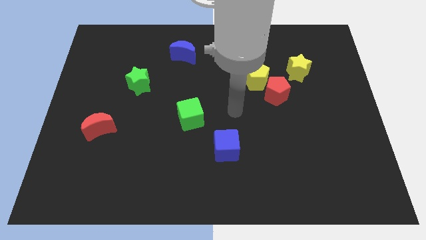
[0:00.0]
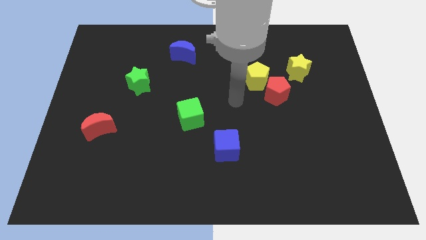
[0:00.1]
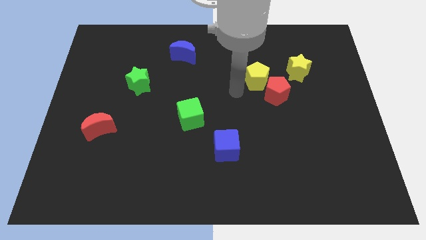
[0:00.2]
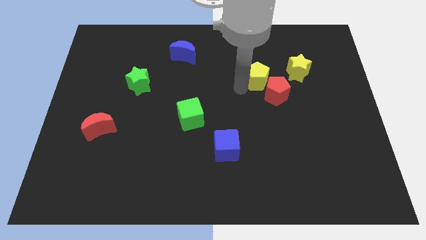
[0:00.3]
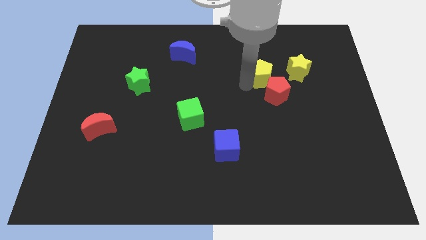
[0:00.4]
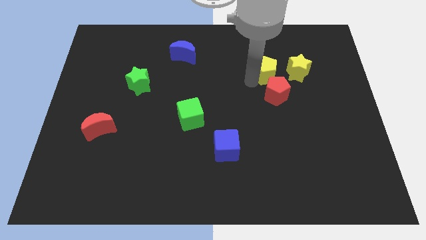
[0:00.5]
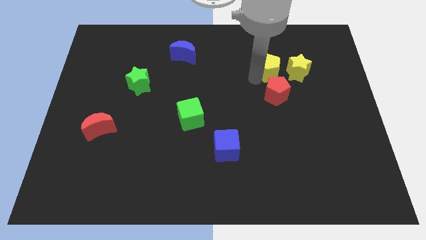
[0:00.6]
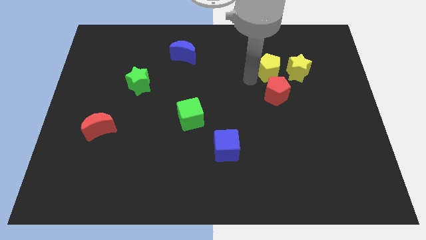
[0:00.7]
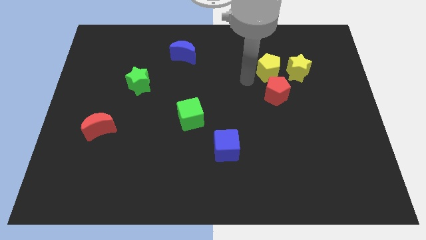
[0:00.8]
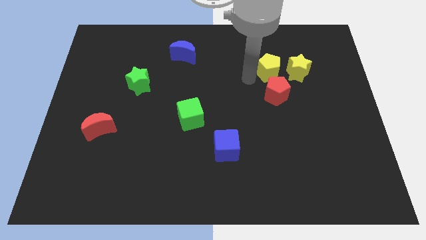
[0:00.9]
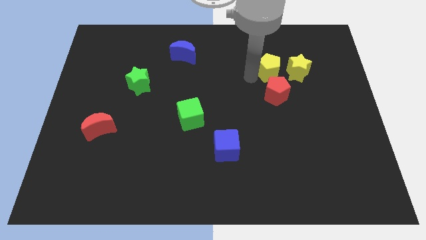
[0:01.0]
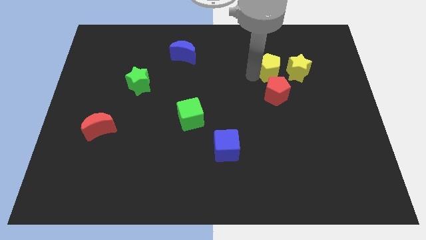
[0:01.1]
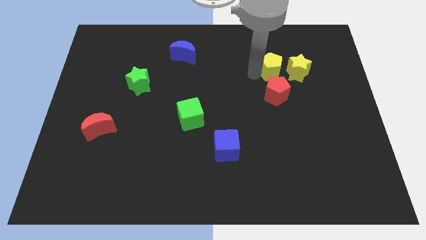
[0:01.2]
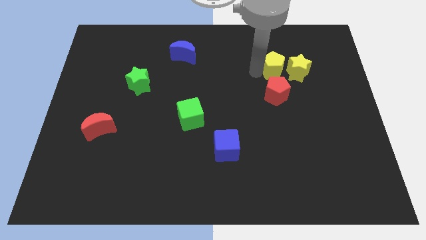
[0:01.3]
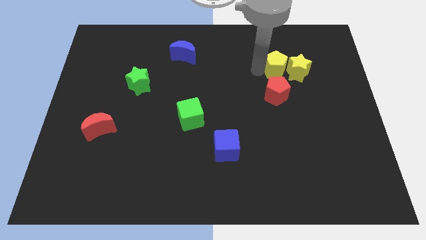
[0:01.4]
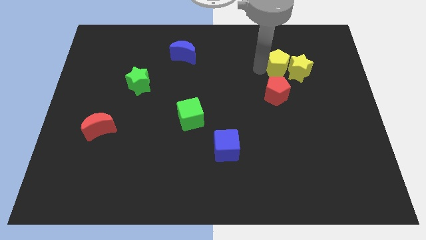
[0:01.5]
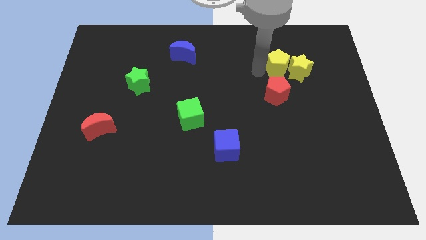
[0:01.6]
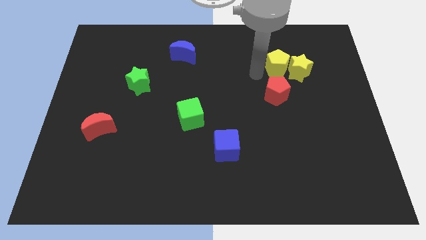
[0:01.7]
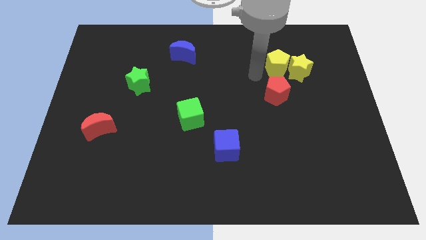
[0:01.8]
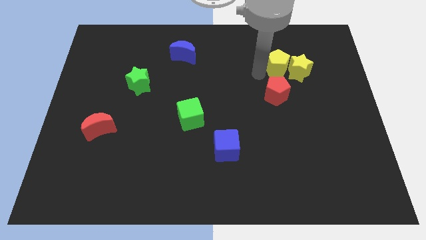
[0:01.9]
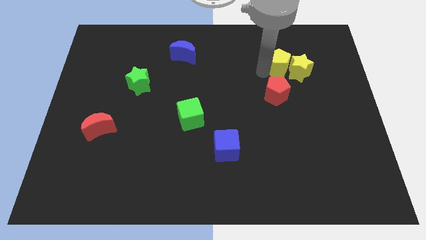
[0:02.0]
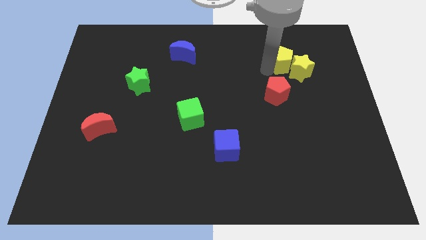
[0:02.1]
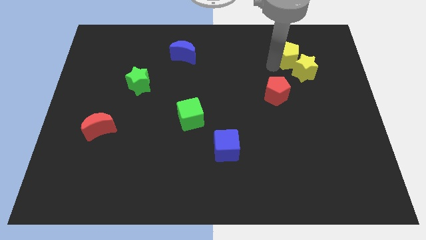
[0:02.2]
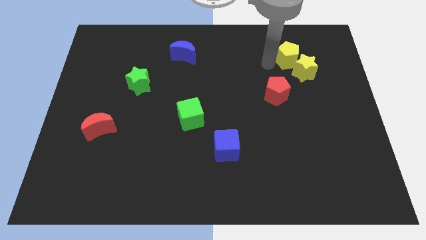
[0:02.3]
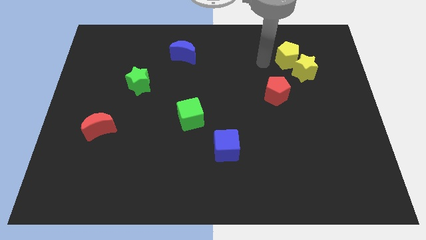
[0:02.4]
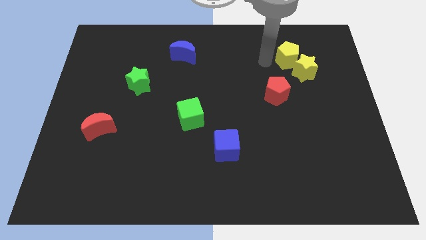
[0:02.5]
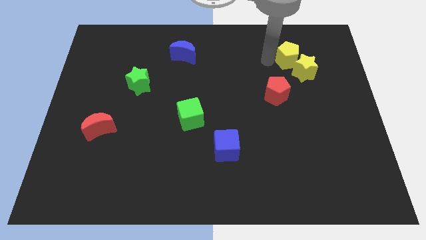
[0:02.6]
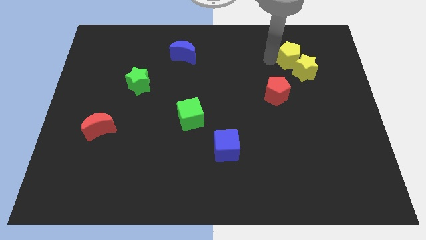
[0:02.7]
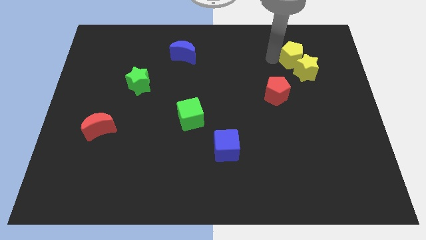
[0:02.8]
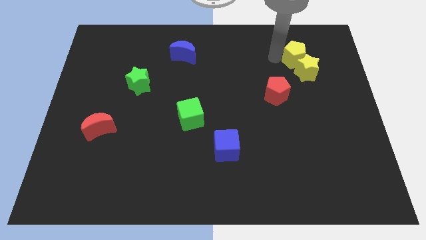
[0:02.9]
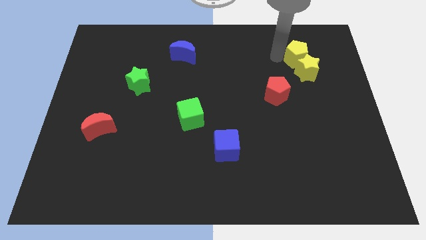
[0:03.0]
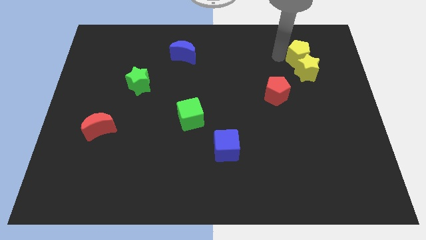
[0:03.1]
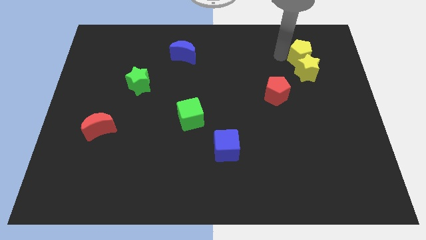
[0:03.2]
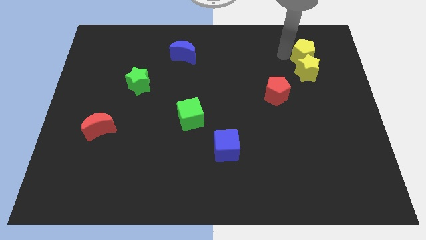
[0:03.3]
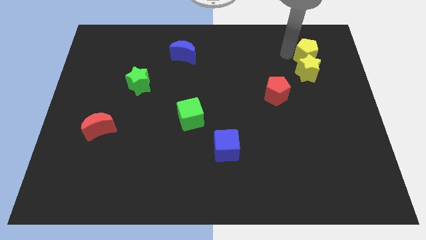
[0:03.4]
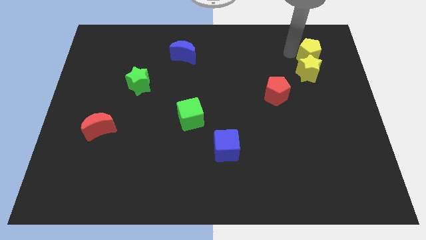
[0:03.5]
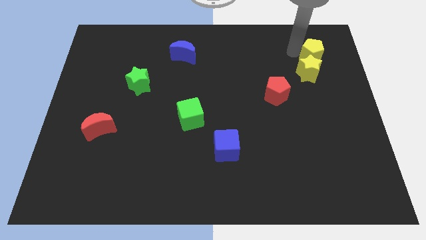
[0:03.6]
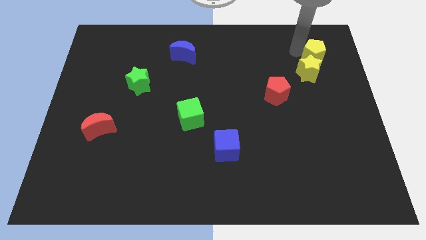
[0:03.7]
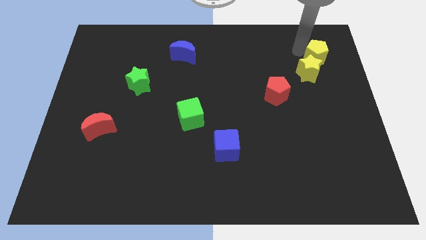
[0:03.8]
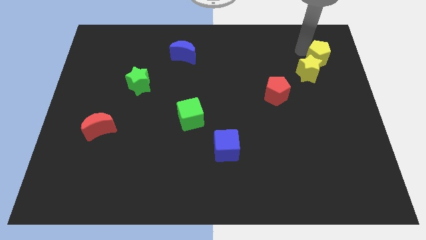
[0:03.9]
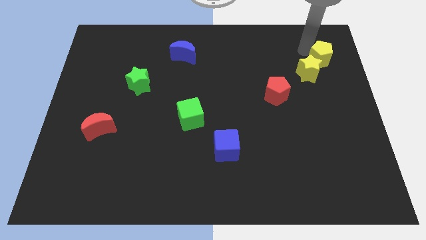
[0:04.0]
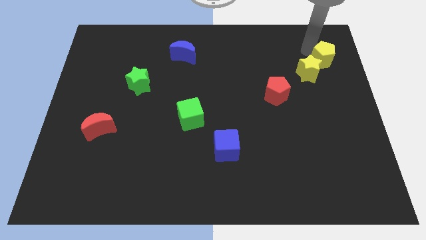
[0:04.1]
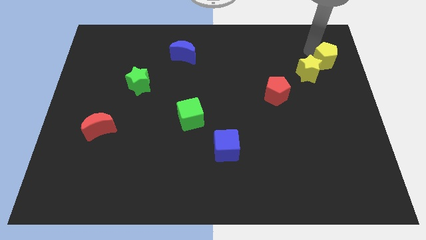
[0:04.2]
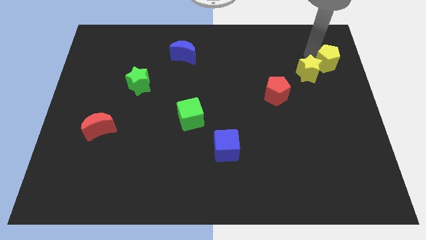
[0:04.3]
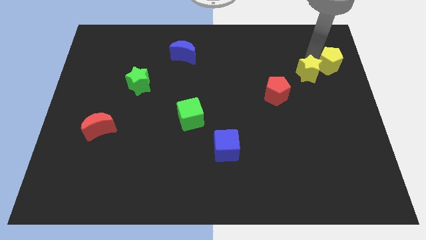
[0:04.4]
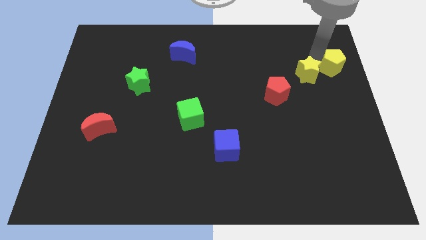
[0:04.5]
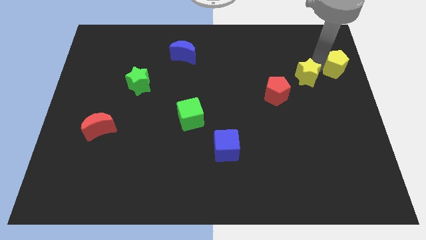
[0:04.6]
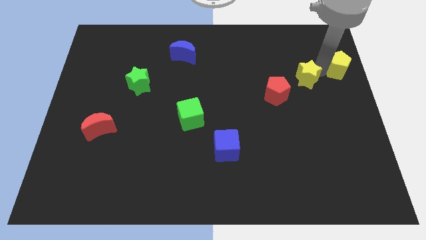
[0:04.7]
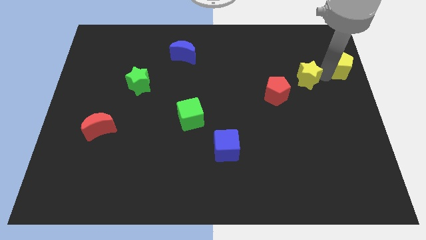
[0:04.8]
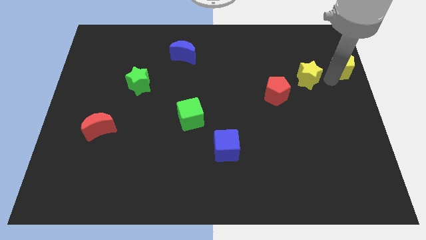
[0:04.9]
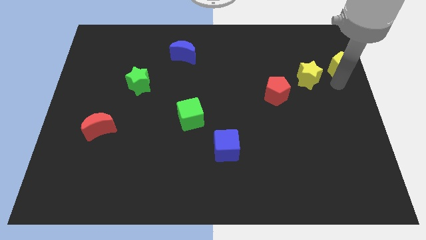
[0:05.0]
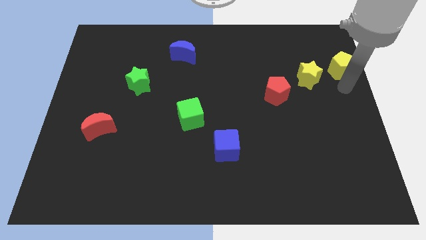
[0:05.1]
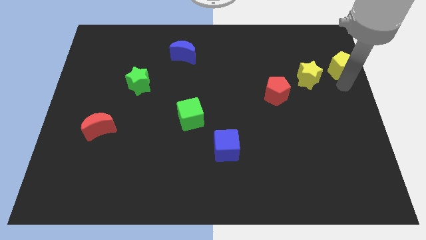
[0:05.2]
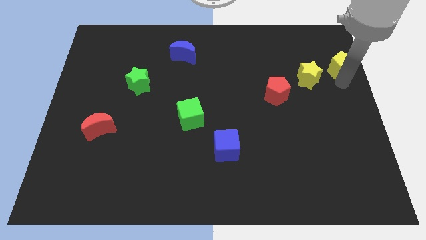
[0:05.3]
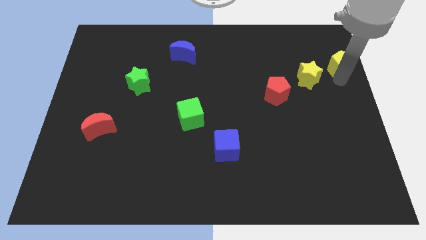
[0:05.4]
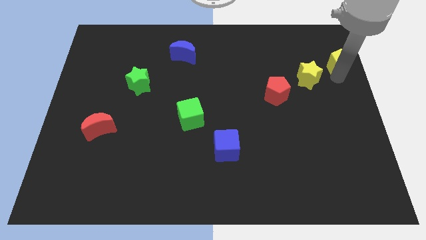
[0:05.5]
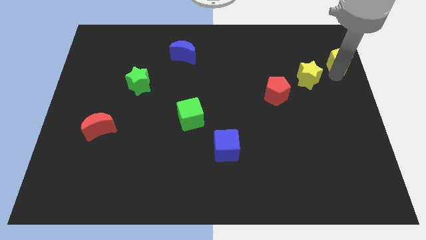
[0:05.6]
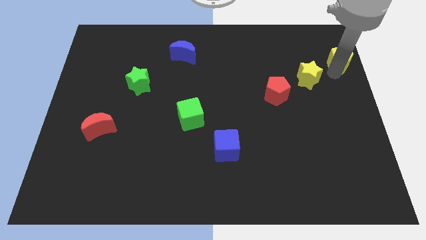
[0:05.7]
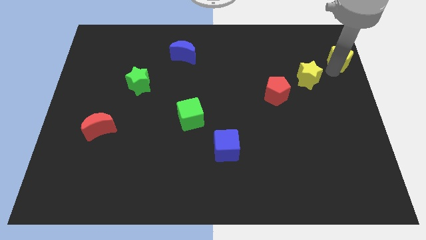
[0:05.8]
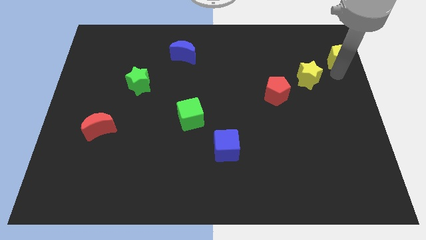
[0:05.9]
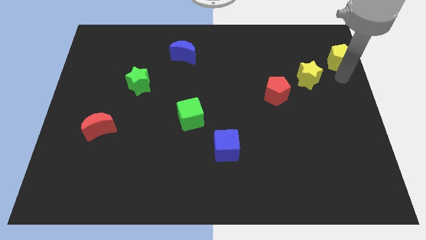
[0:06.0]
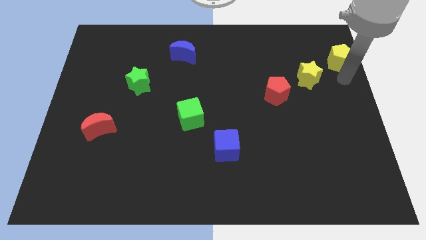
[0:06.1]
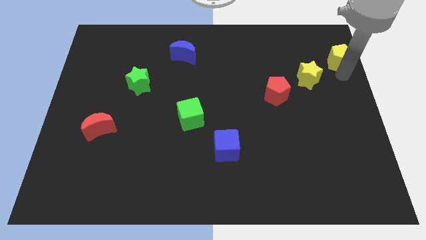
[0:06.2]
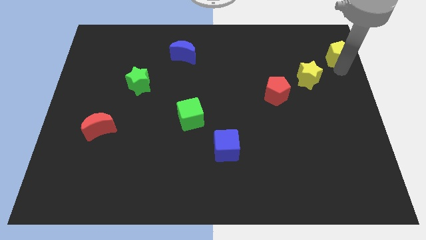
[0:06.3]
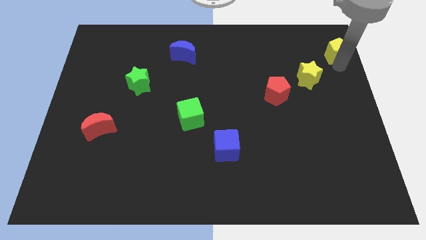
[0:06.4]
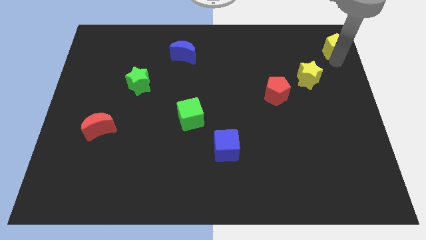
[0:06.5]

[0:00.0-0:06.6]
slide the yellow pentagon to the upper right corner
